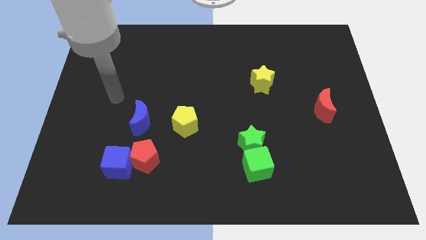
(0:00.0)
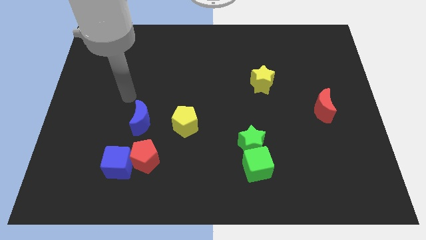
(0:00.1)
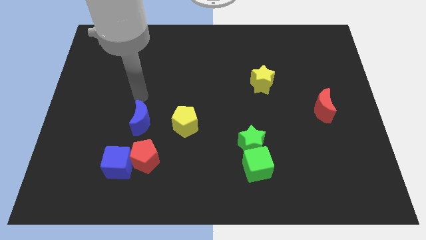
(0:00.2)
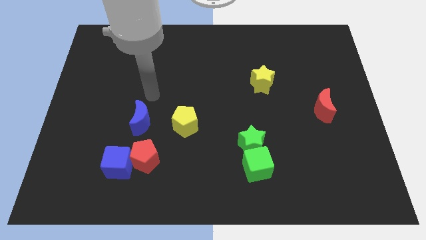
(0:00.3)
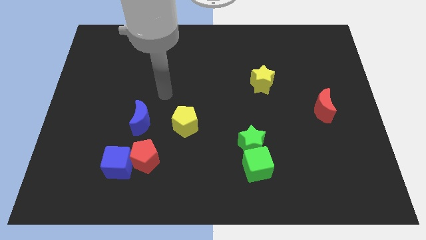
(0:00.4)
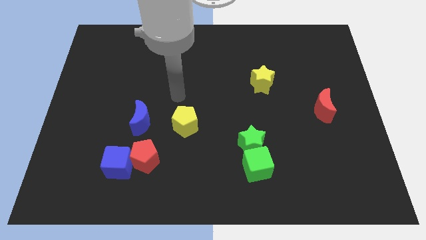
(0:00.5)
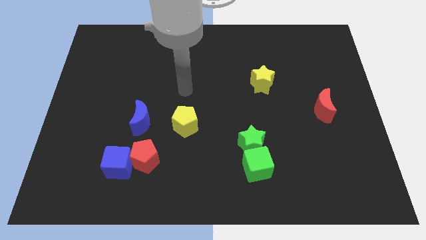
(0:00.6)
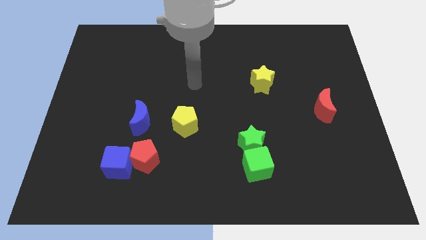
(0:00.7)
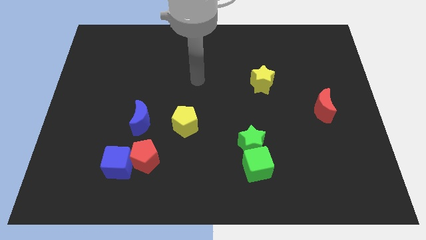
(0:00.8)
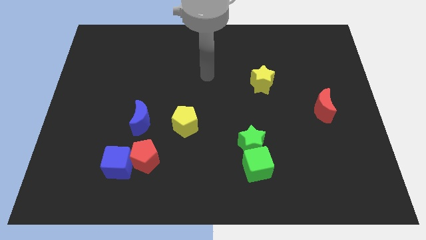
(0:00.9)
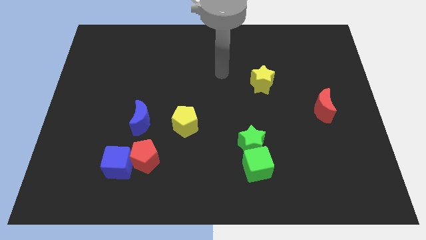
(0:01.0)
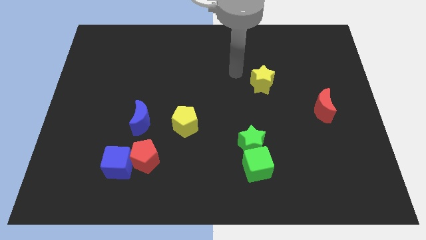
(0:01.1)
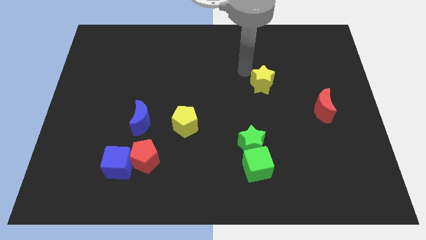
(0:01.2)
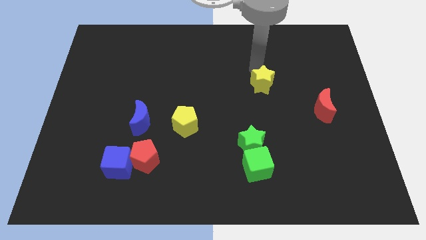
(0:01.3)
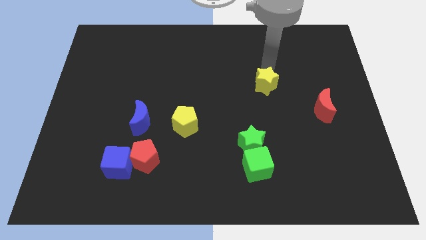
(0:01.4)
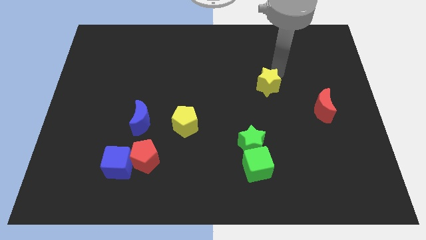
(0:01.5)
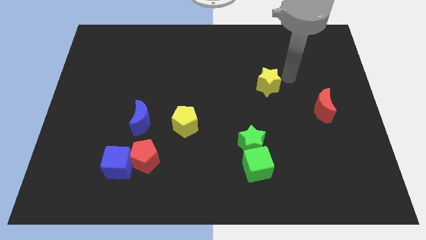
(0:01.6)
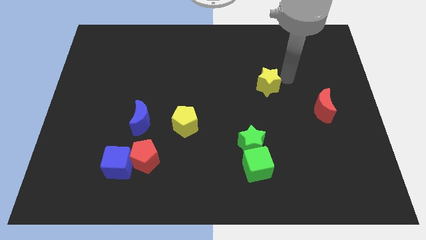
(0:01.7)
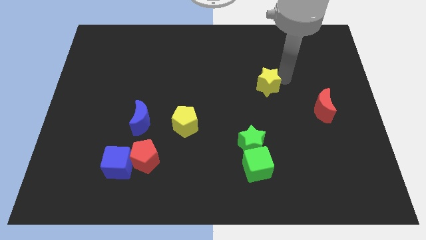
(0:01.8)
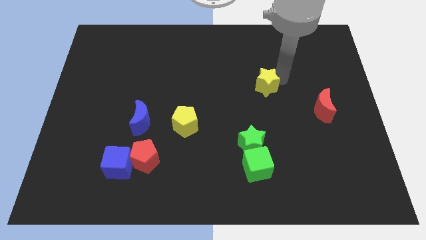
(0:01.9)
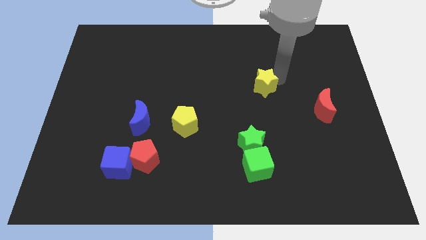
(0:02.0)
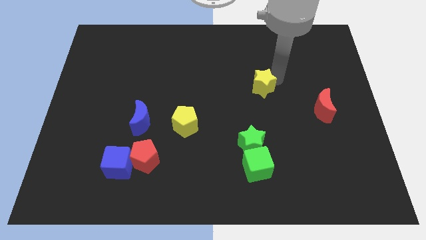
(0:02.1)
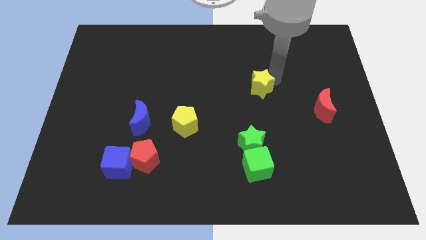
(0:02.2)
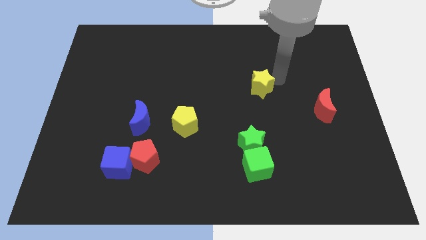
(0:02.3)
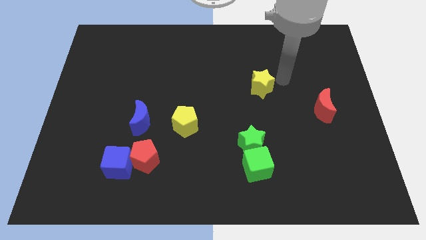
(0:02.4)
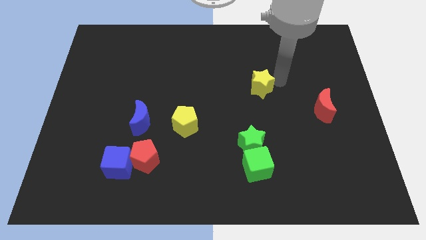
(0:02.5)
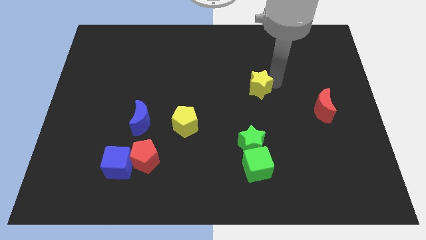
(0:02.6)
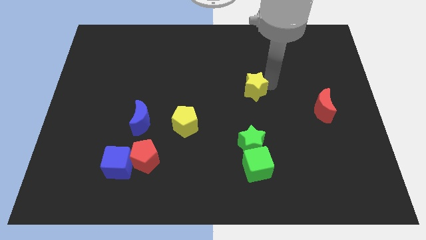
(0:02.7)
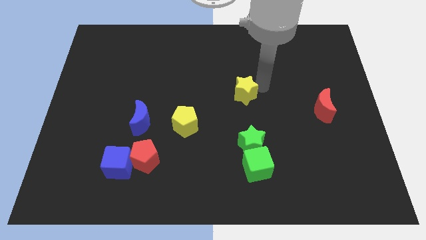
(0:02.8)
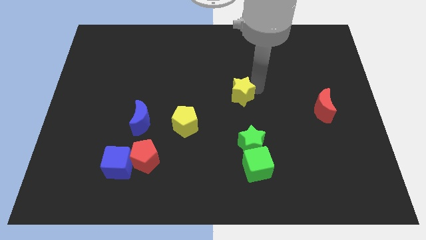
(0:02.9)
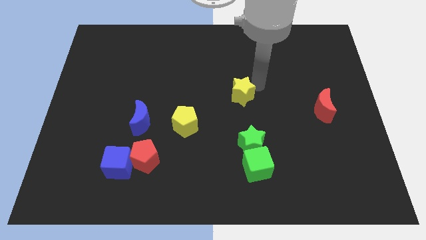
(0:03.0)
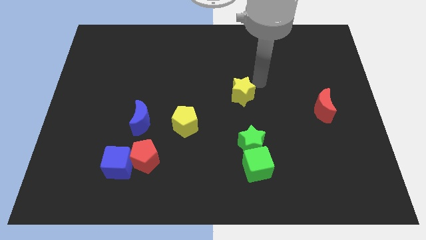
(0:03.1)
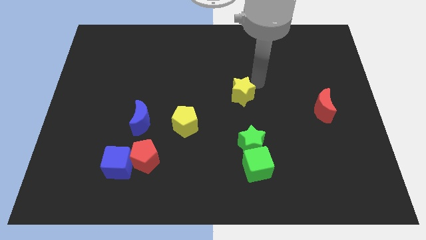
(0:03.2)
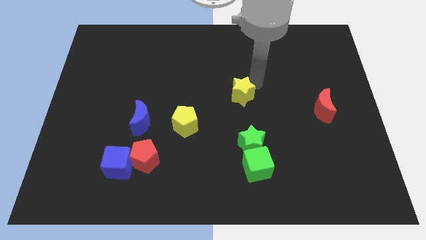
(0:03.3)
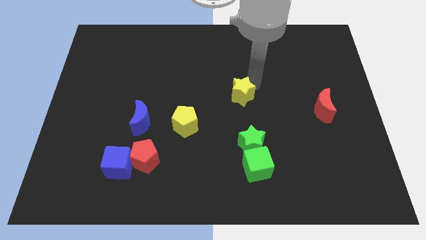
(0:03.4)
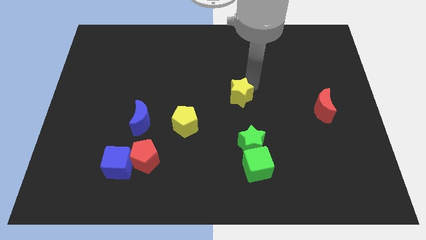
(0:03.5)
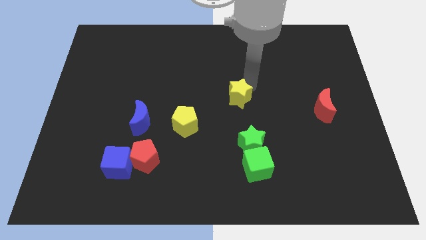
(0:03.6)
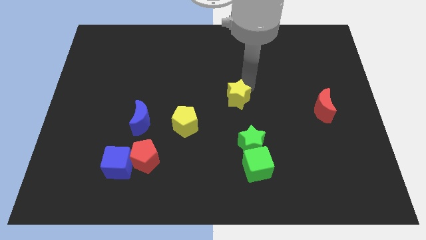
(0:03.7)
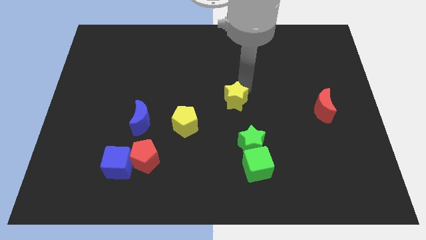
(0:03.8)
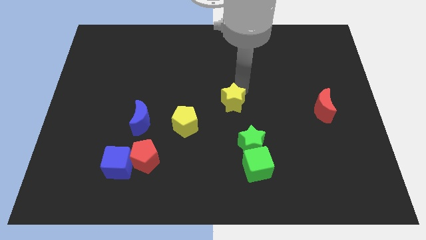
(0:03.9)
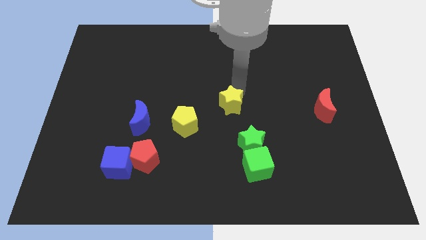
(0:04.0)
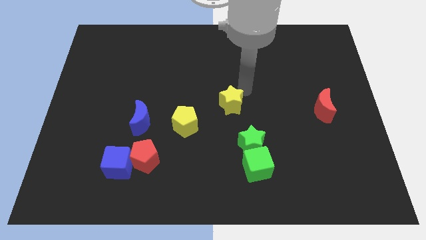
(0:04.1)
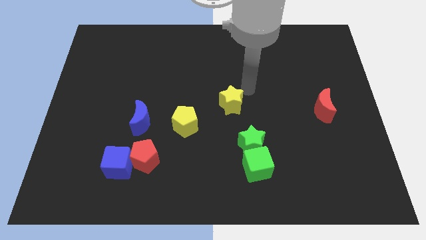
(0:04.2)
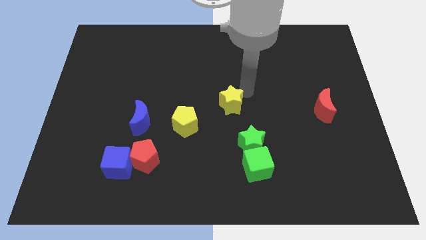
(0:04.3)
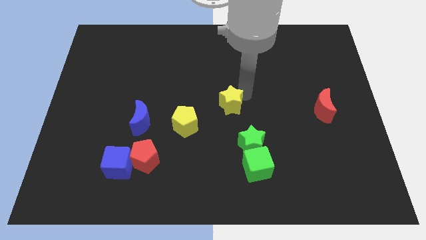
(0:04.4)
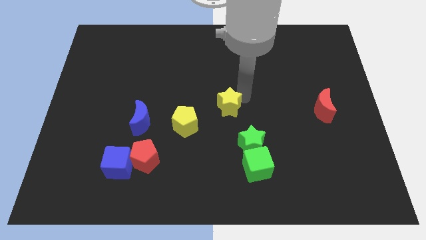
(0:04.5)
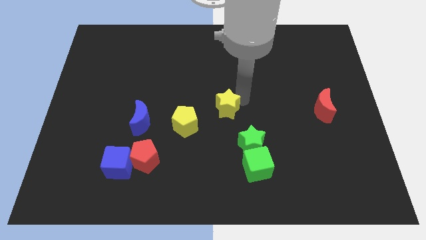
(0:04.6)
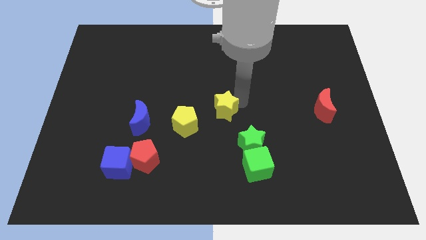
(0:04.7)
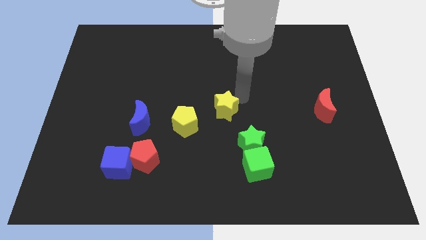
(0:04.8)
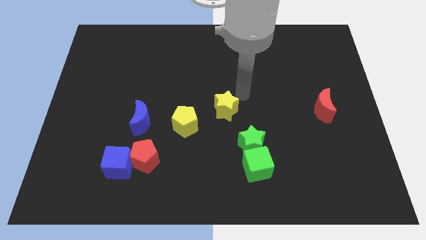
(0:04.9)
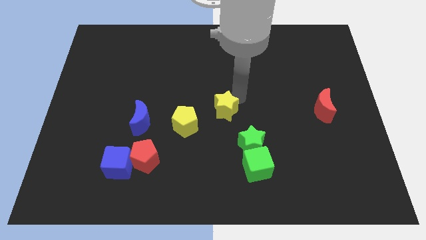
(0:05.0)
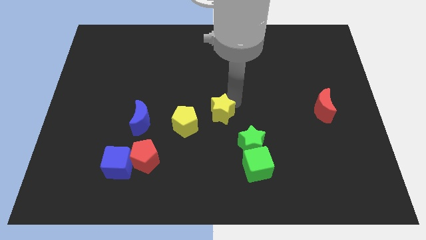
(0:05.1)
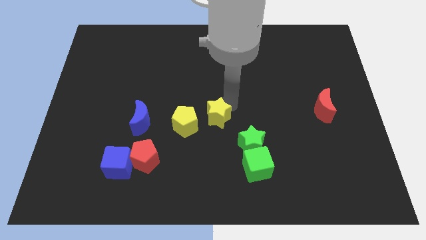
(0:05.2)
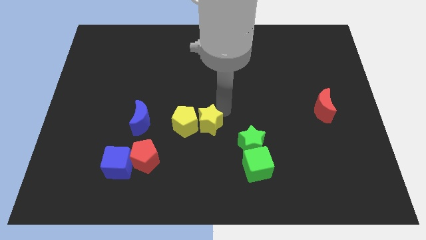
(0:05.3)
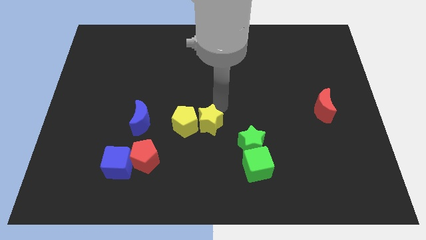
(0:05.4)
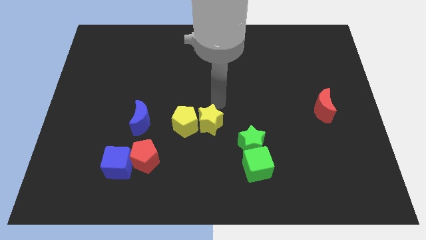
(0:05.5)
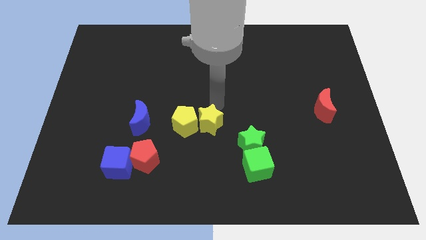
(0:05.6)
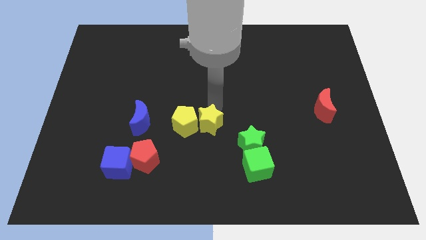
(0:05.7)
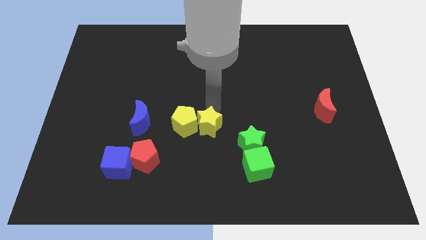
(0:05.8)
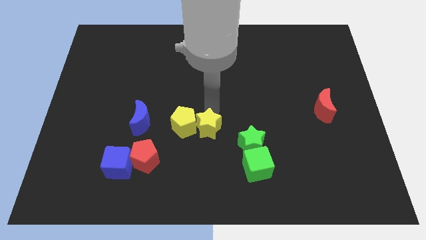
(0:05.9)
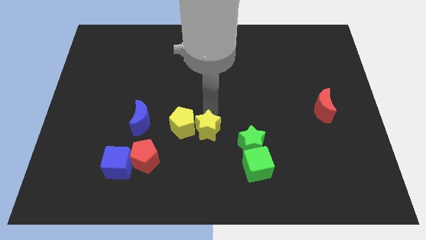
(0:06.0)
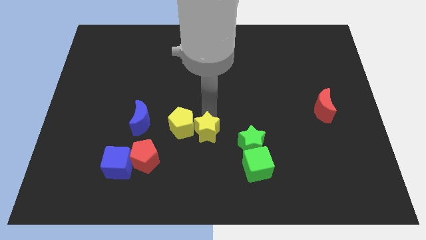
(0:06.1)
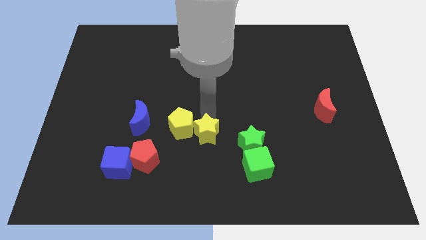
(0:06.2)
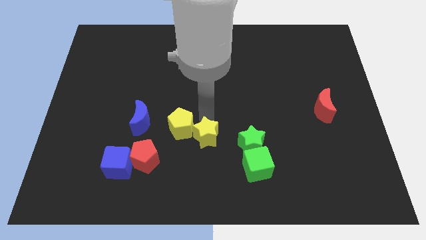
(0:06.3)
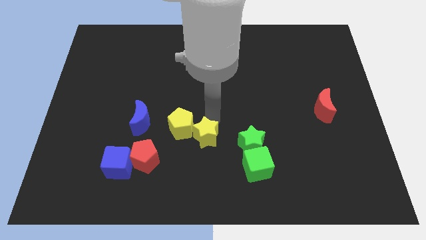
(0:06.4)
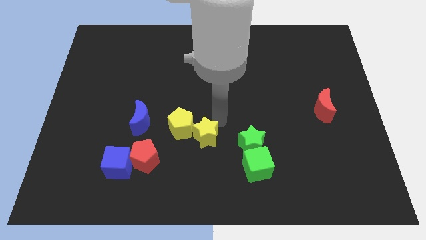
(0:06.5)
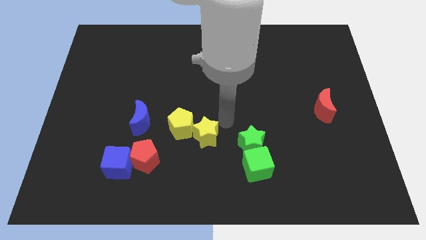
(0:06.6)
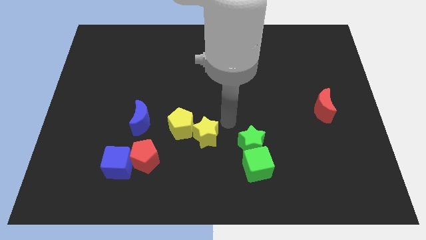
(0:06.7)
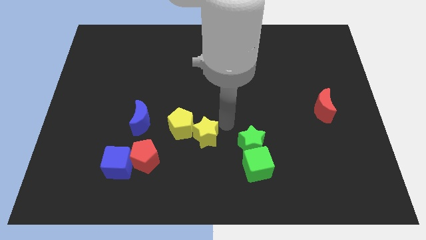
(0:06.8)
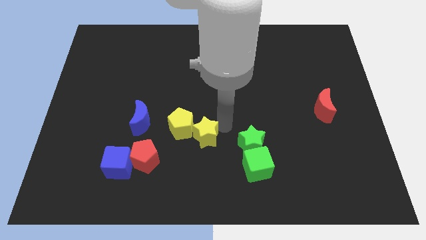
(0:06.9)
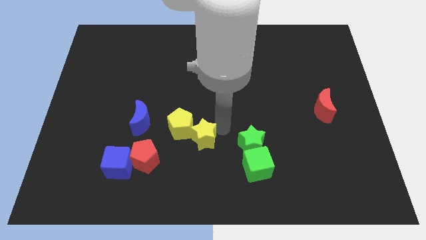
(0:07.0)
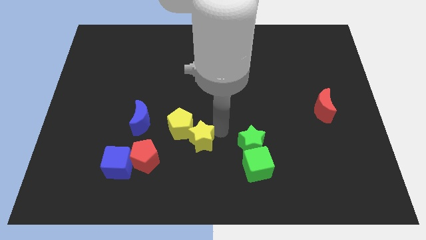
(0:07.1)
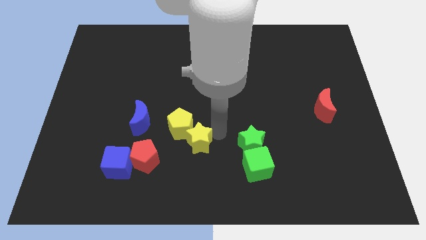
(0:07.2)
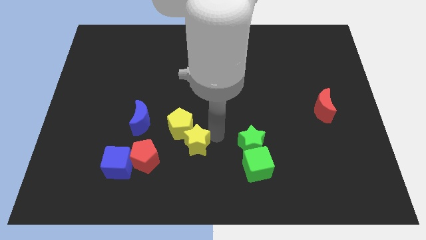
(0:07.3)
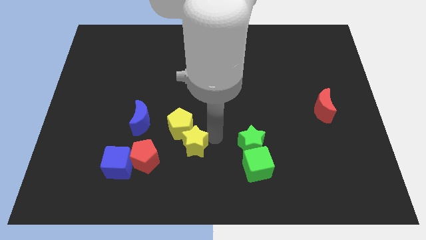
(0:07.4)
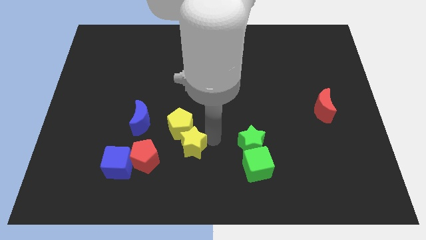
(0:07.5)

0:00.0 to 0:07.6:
push the yellow star to the top right side of the red pentagon

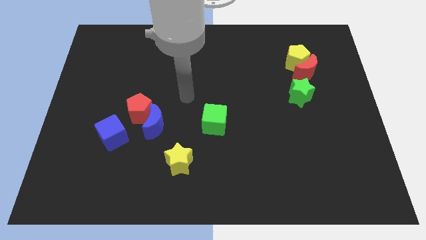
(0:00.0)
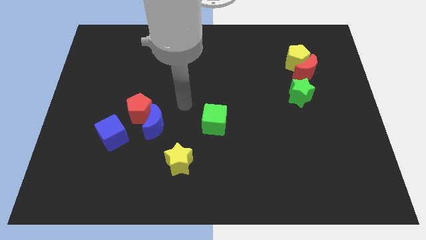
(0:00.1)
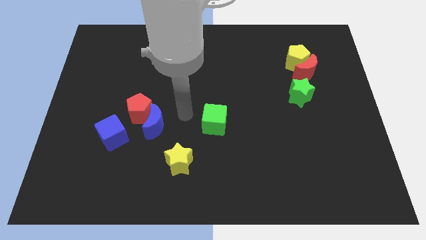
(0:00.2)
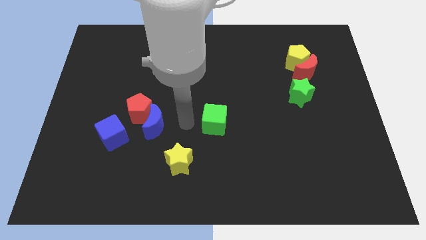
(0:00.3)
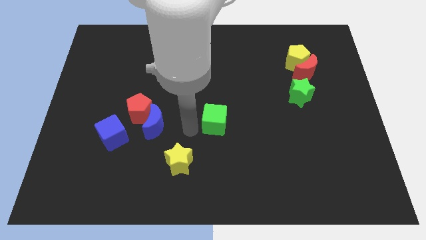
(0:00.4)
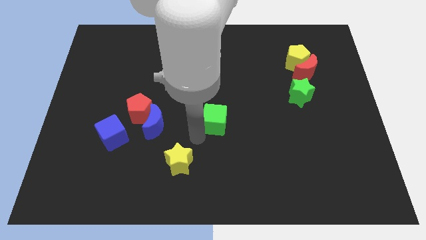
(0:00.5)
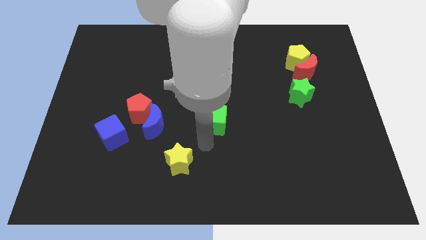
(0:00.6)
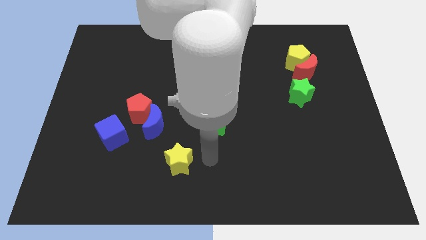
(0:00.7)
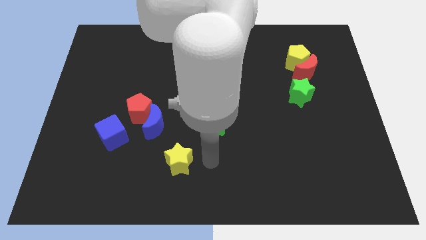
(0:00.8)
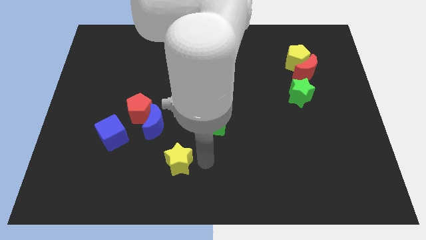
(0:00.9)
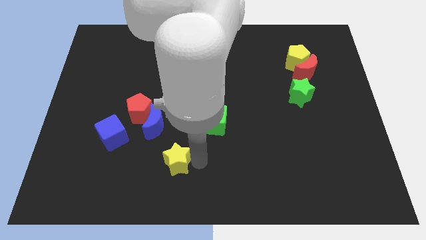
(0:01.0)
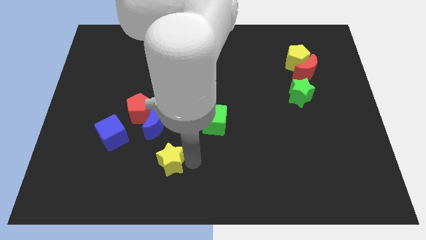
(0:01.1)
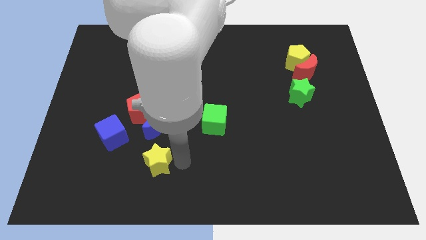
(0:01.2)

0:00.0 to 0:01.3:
slide the yellow star to the bottom right of the blue cube
